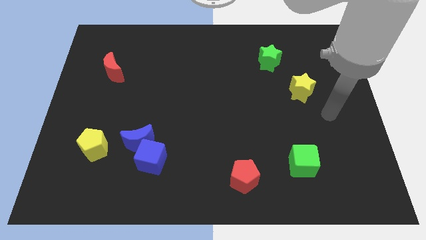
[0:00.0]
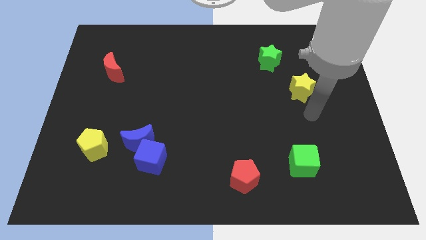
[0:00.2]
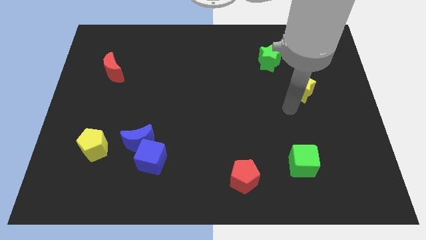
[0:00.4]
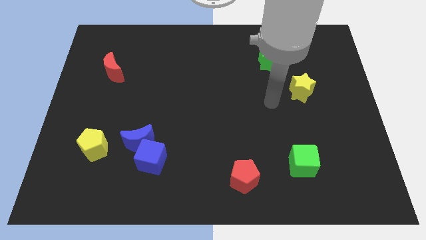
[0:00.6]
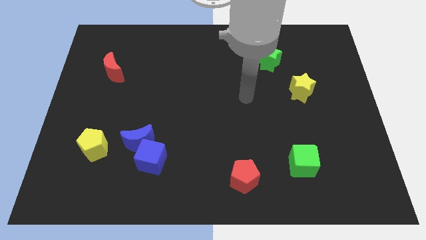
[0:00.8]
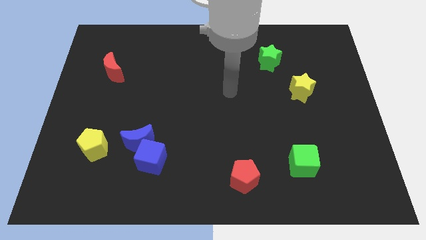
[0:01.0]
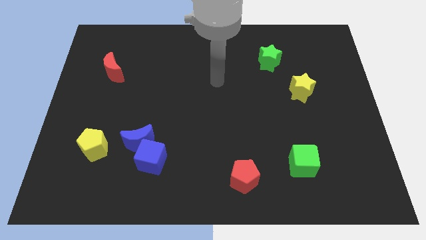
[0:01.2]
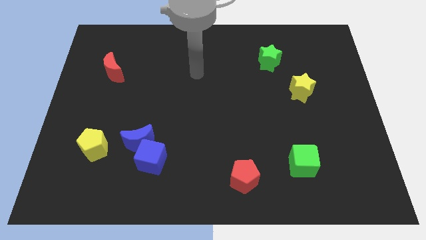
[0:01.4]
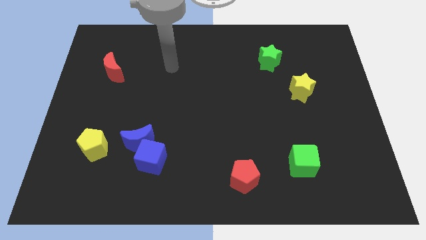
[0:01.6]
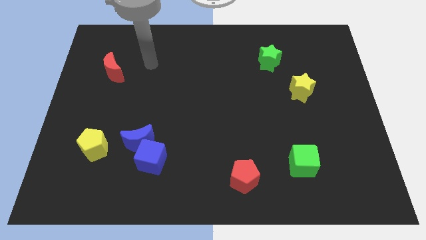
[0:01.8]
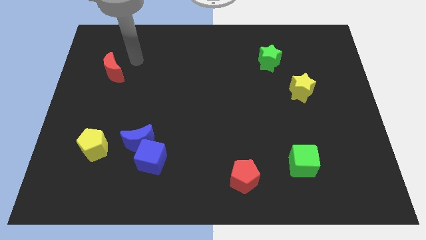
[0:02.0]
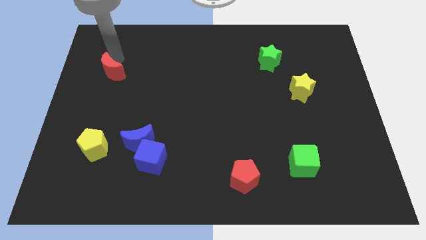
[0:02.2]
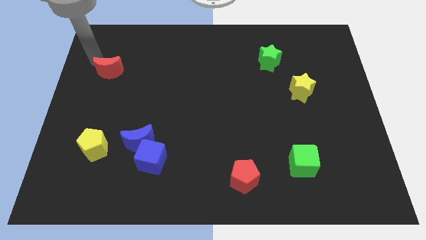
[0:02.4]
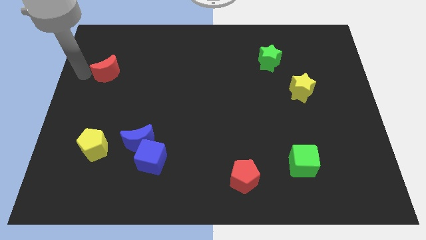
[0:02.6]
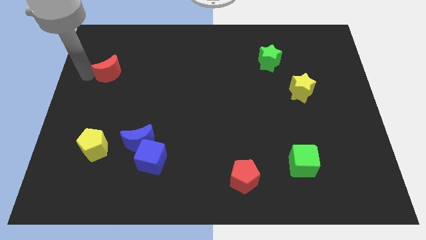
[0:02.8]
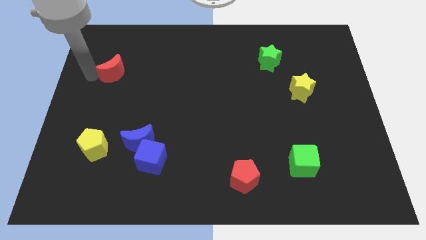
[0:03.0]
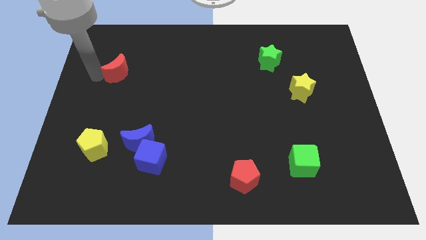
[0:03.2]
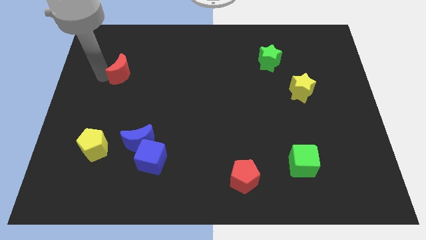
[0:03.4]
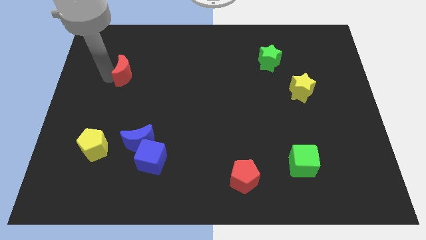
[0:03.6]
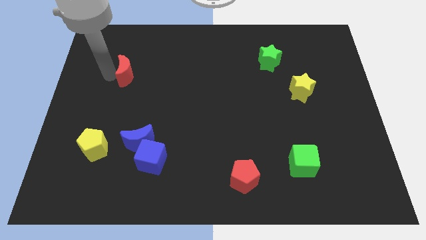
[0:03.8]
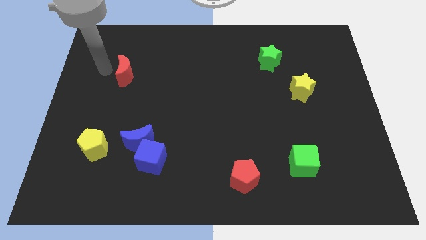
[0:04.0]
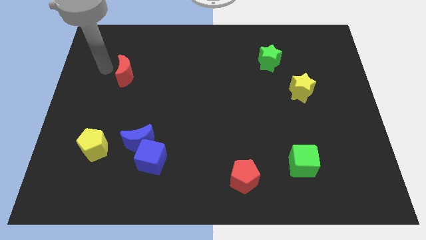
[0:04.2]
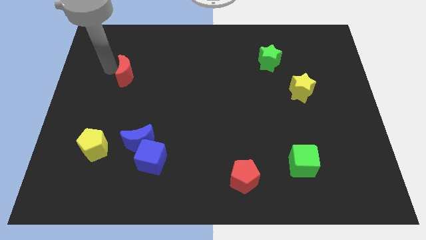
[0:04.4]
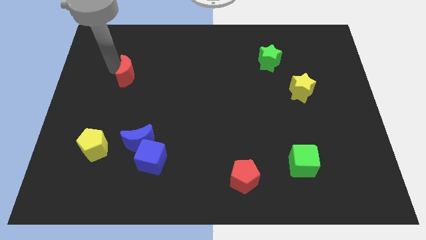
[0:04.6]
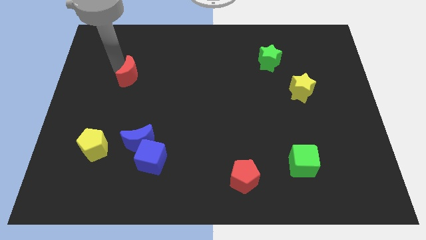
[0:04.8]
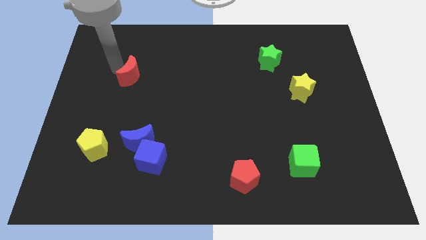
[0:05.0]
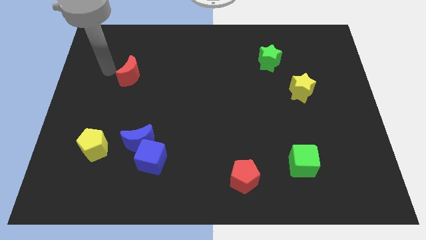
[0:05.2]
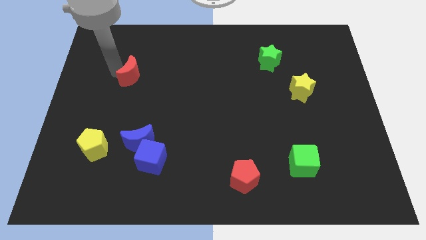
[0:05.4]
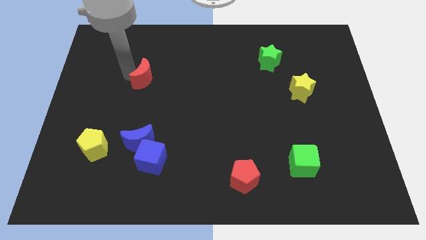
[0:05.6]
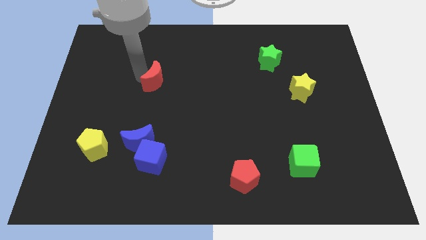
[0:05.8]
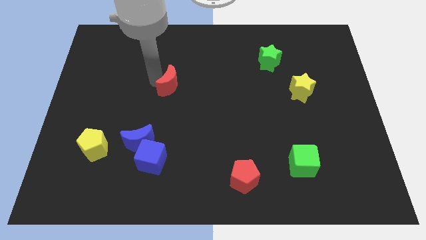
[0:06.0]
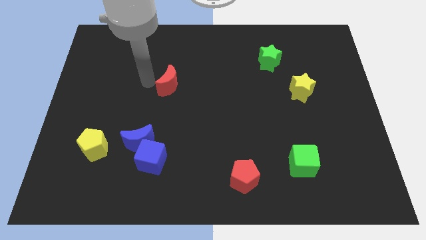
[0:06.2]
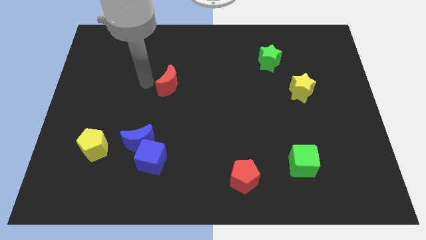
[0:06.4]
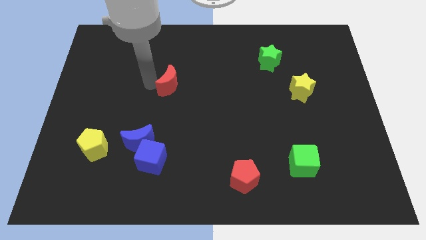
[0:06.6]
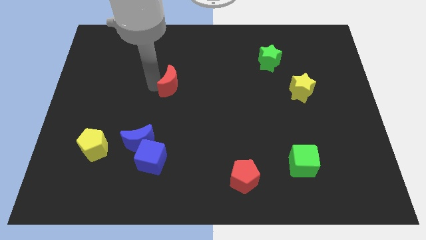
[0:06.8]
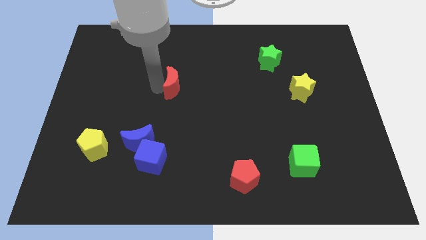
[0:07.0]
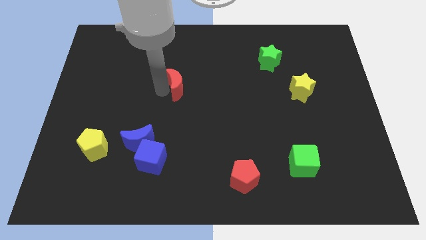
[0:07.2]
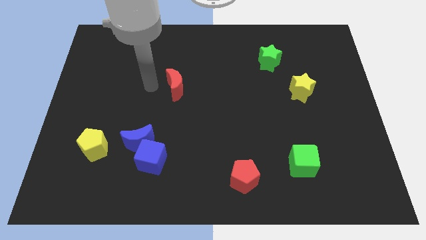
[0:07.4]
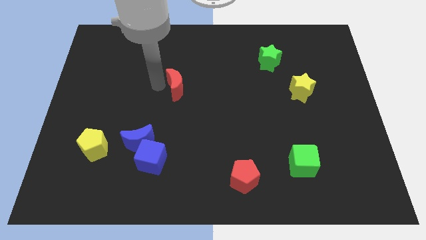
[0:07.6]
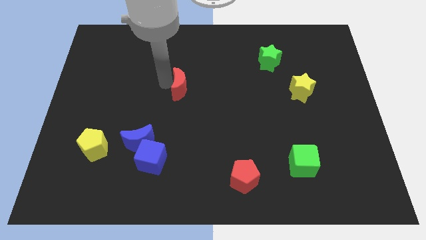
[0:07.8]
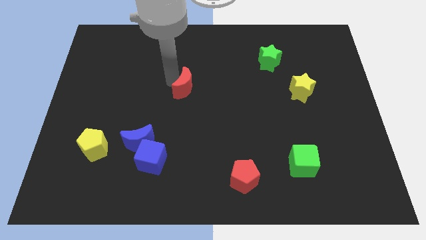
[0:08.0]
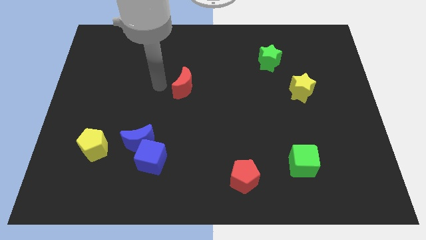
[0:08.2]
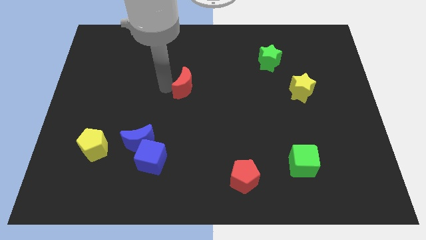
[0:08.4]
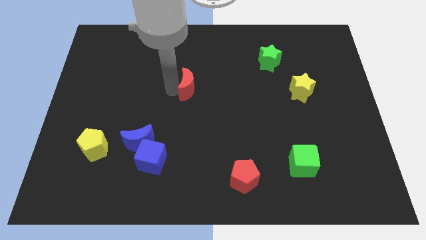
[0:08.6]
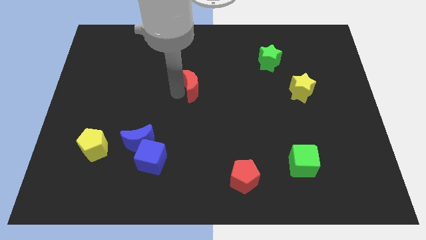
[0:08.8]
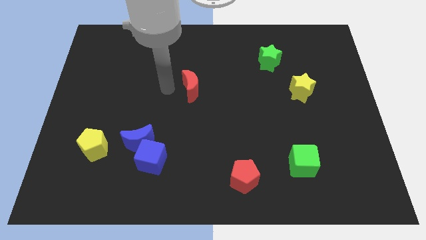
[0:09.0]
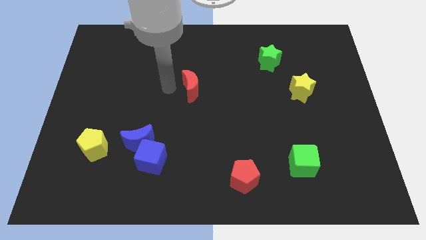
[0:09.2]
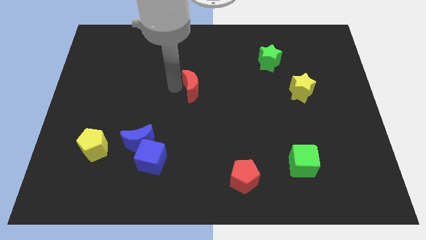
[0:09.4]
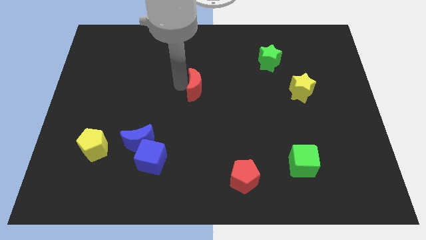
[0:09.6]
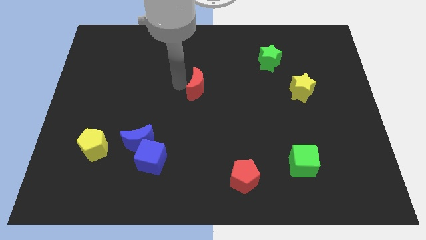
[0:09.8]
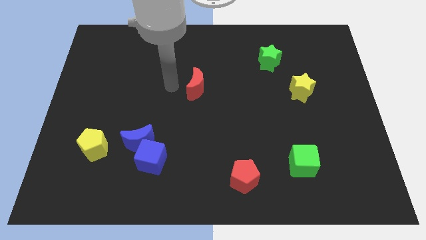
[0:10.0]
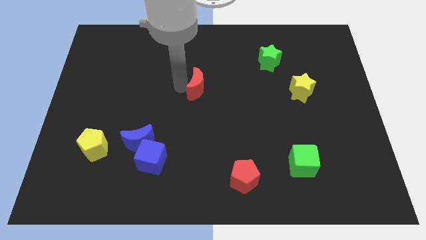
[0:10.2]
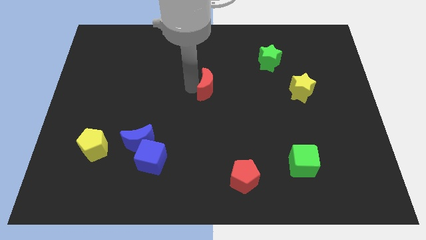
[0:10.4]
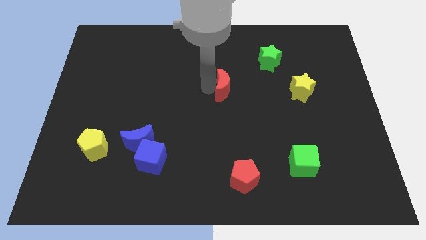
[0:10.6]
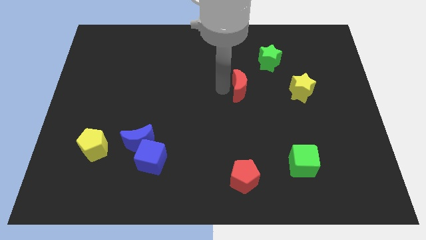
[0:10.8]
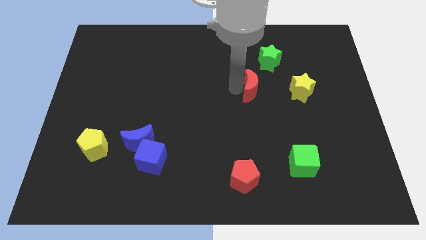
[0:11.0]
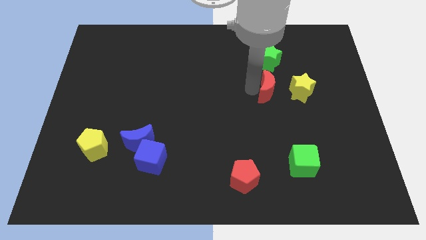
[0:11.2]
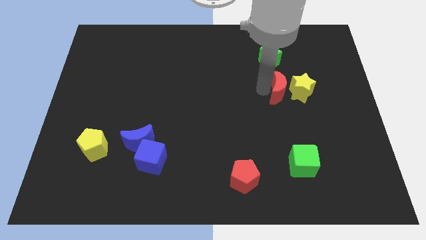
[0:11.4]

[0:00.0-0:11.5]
slide the red moon close to the yellow star

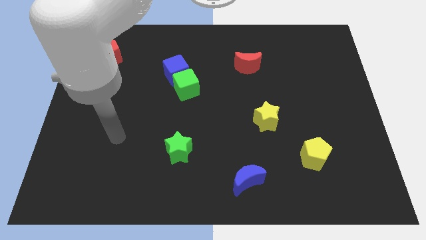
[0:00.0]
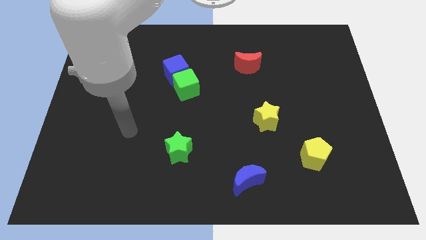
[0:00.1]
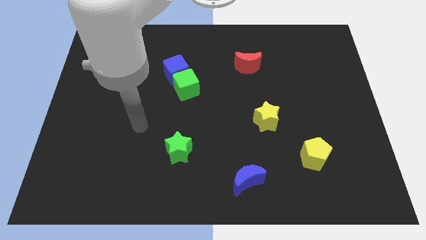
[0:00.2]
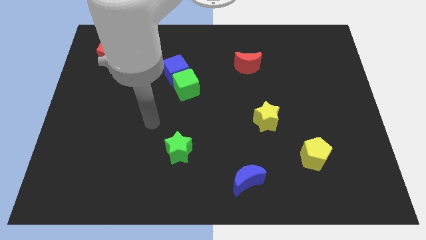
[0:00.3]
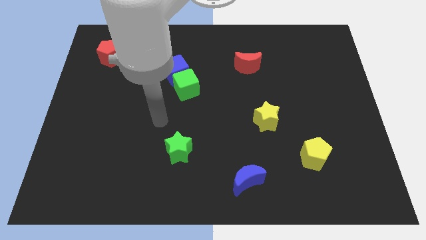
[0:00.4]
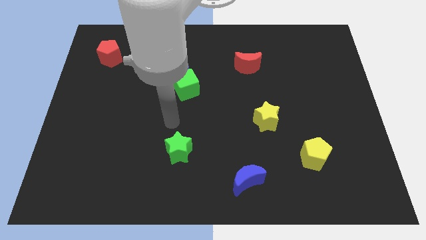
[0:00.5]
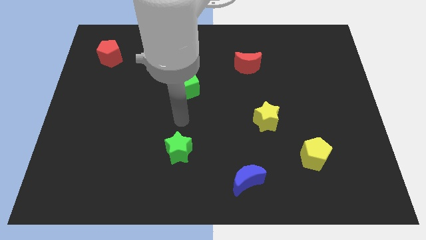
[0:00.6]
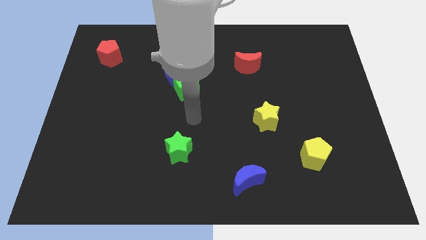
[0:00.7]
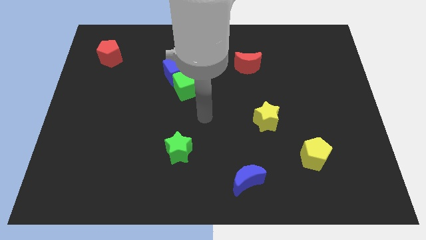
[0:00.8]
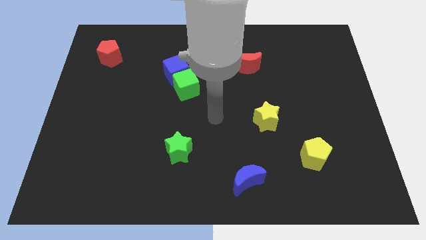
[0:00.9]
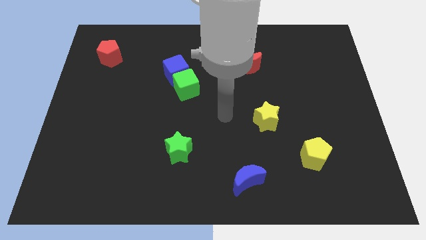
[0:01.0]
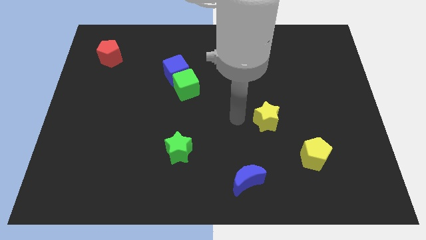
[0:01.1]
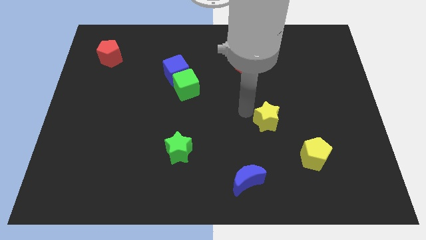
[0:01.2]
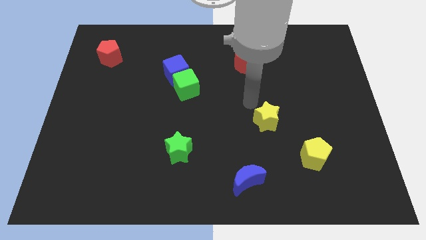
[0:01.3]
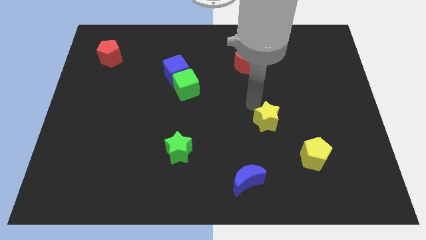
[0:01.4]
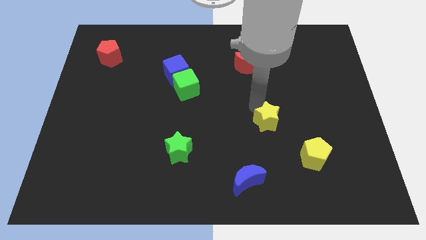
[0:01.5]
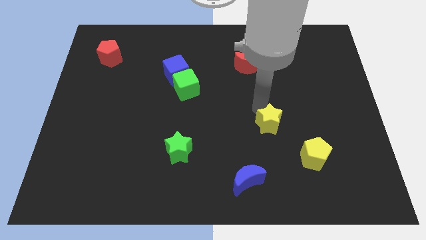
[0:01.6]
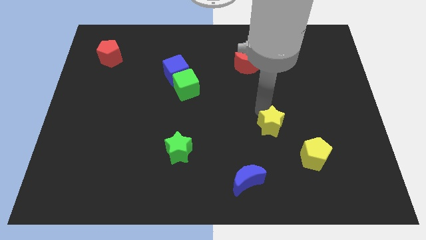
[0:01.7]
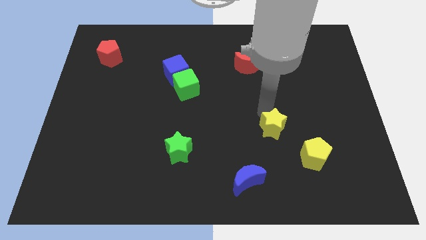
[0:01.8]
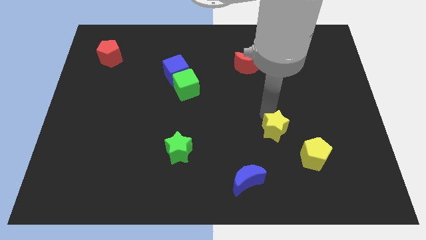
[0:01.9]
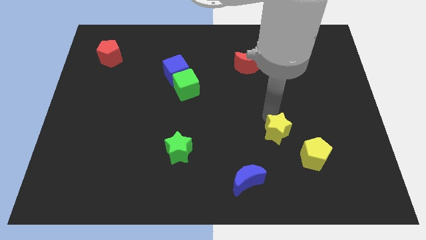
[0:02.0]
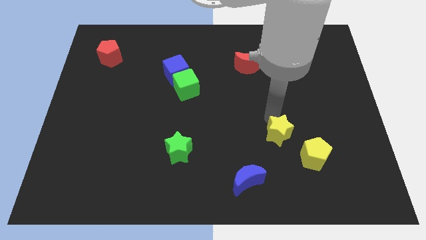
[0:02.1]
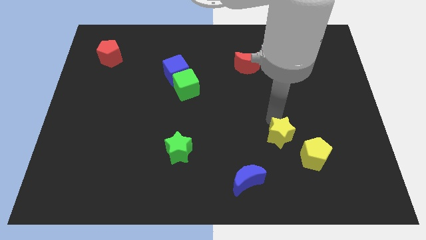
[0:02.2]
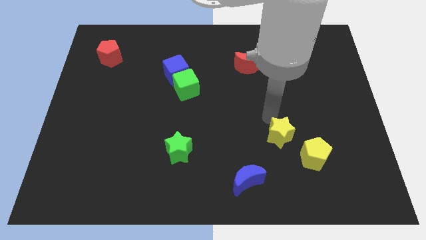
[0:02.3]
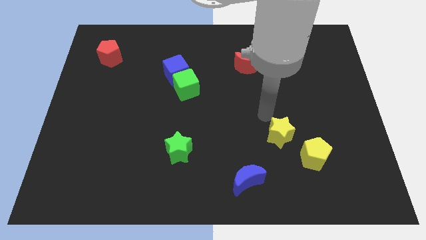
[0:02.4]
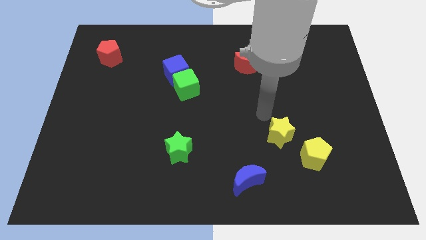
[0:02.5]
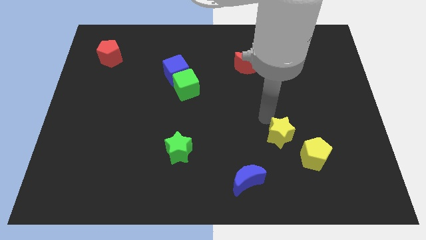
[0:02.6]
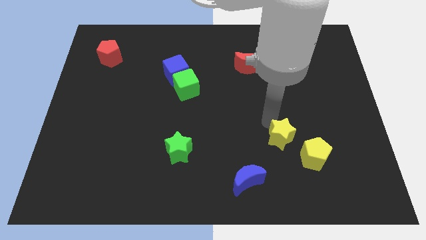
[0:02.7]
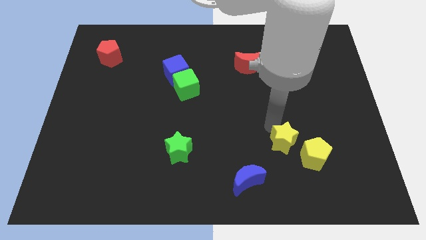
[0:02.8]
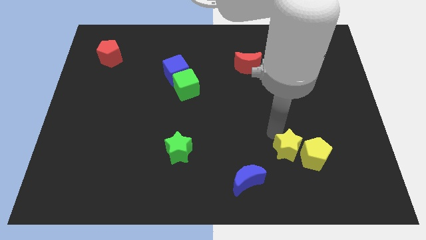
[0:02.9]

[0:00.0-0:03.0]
move the yellow star close to the yellow pentagon
